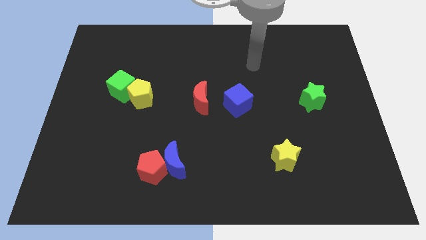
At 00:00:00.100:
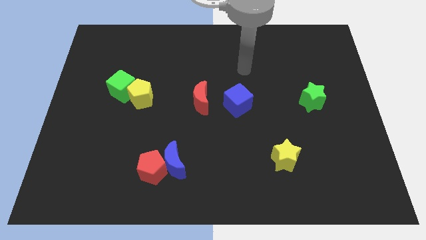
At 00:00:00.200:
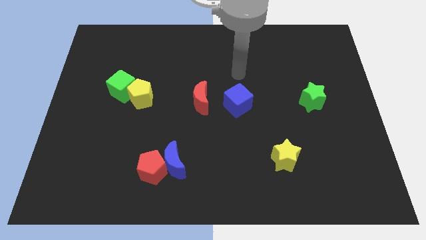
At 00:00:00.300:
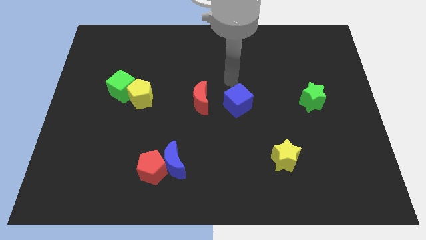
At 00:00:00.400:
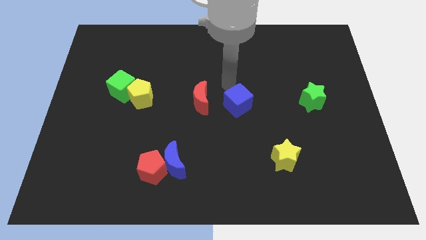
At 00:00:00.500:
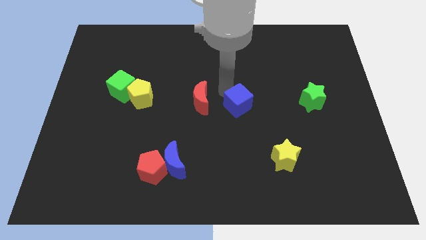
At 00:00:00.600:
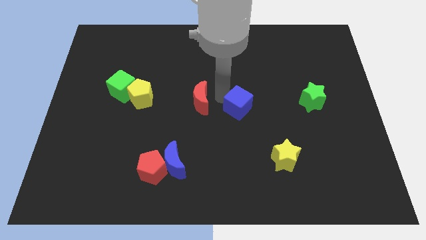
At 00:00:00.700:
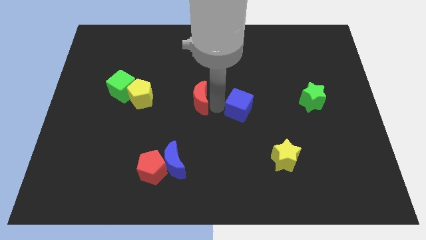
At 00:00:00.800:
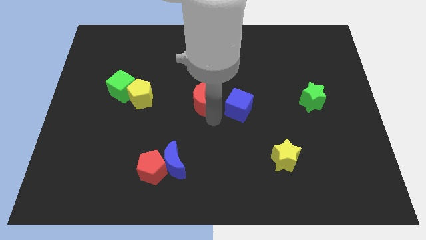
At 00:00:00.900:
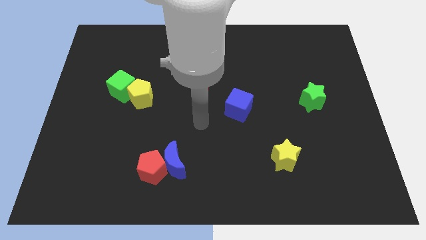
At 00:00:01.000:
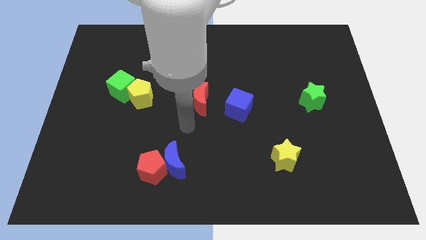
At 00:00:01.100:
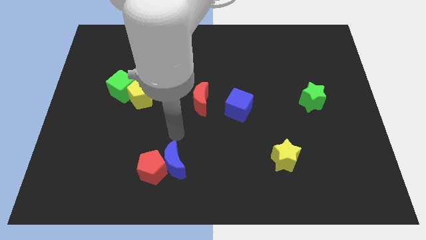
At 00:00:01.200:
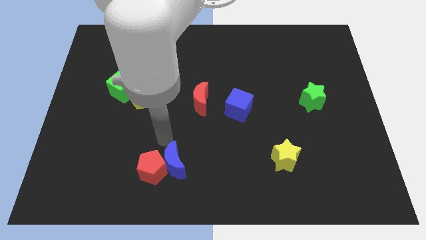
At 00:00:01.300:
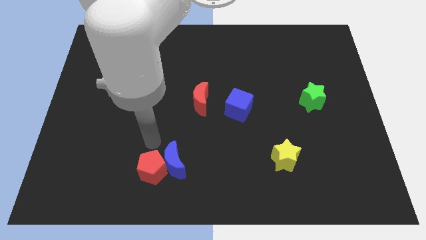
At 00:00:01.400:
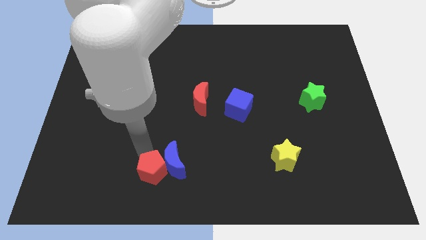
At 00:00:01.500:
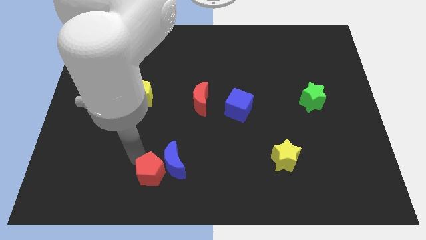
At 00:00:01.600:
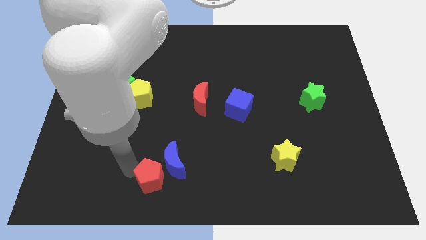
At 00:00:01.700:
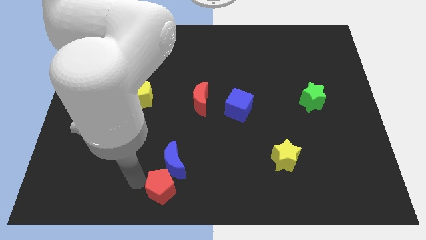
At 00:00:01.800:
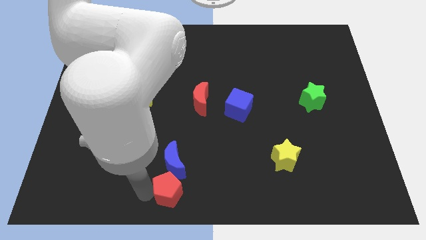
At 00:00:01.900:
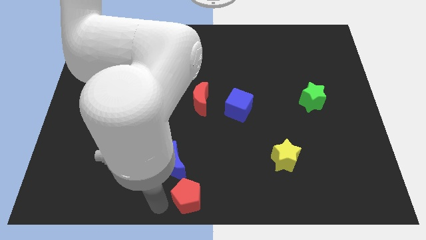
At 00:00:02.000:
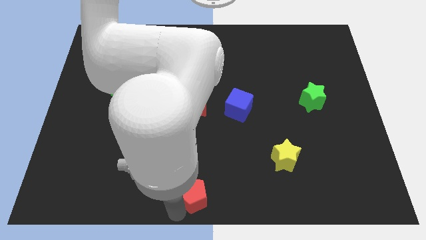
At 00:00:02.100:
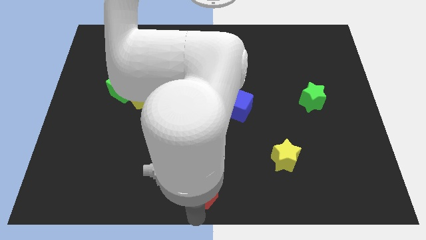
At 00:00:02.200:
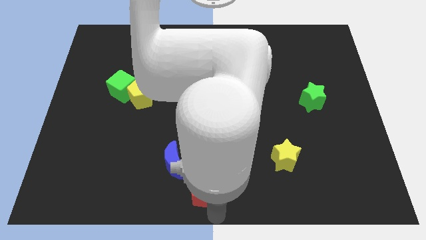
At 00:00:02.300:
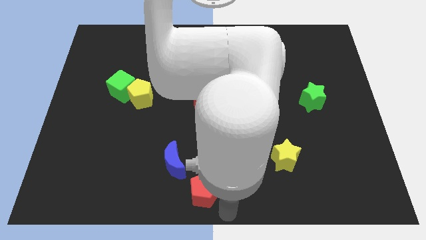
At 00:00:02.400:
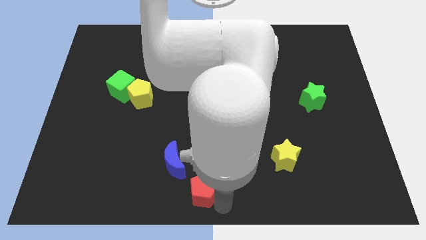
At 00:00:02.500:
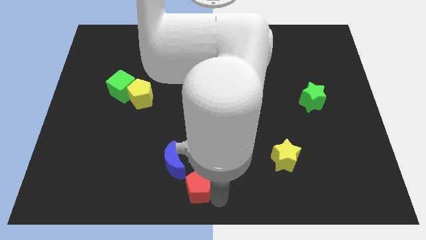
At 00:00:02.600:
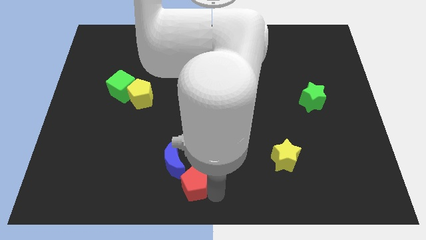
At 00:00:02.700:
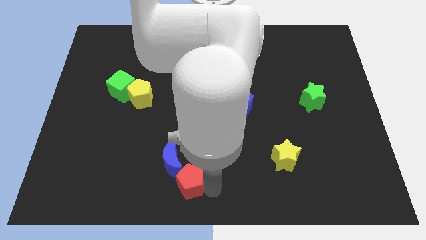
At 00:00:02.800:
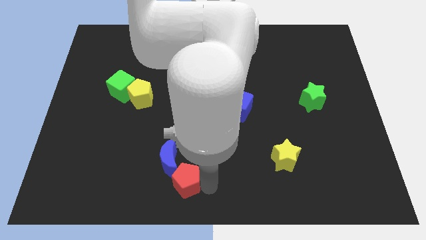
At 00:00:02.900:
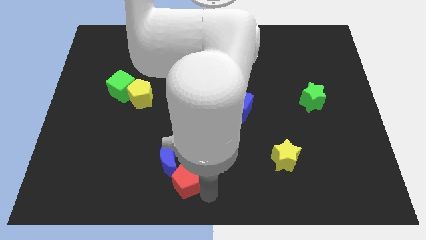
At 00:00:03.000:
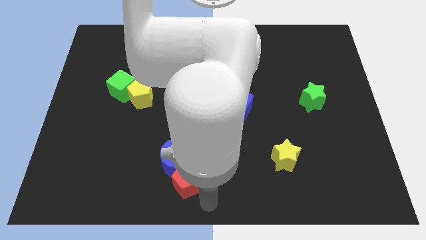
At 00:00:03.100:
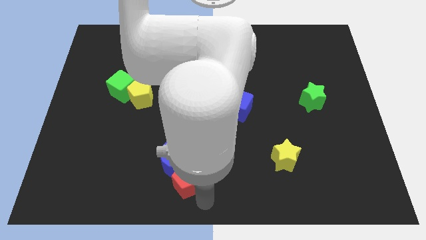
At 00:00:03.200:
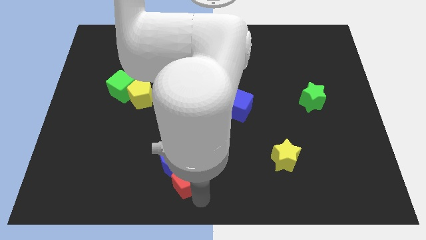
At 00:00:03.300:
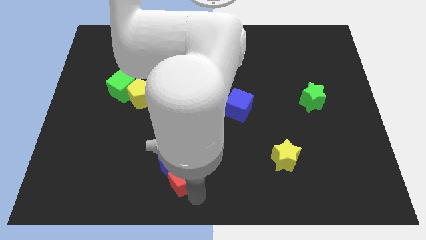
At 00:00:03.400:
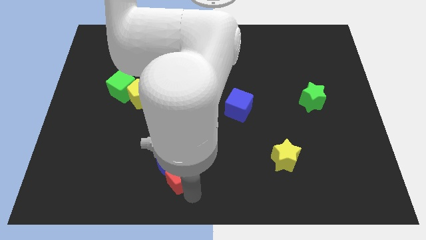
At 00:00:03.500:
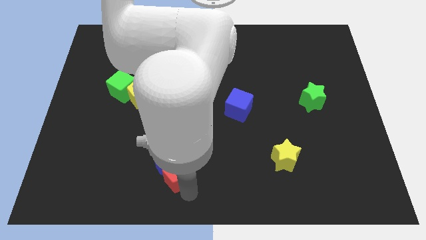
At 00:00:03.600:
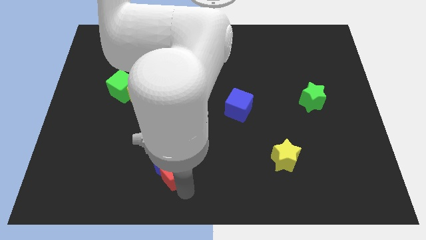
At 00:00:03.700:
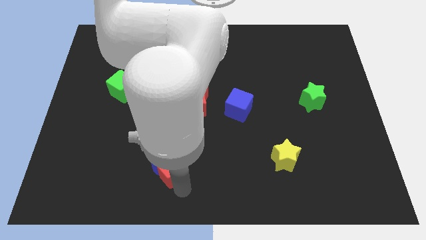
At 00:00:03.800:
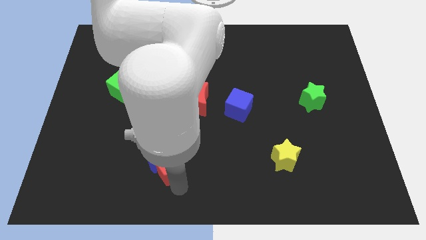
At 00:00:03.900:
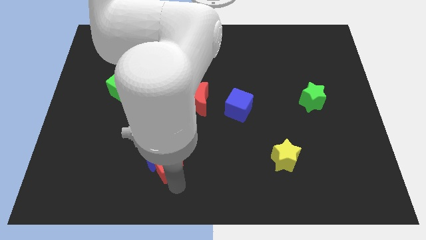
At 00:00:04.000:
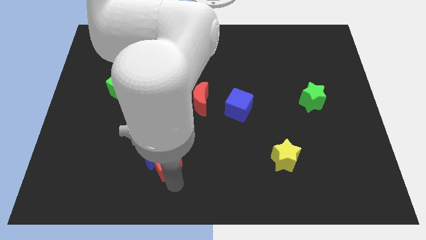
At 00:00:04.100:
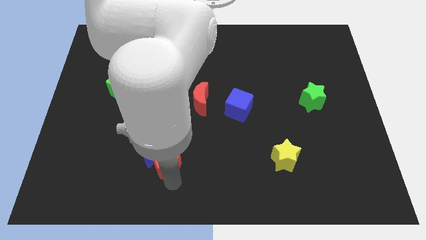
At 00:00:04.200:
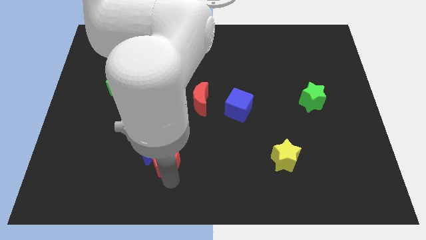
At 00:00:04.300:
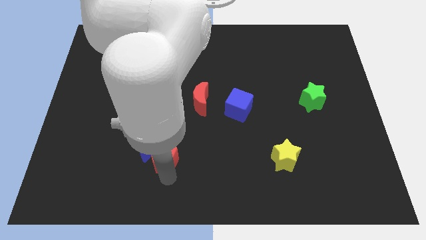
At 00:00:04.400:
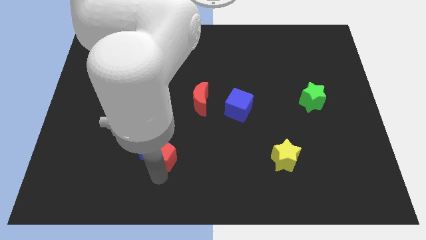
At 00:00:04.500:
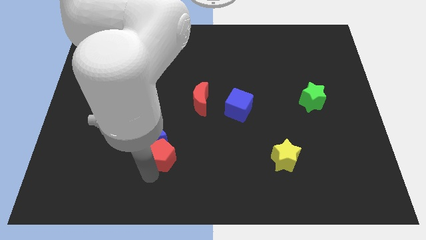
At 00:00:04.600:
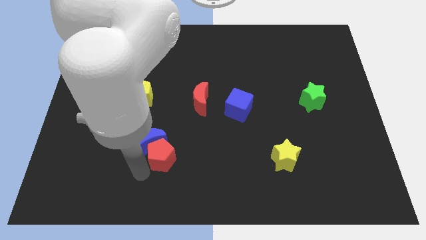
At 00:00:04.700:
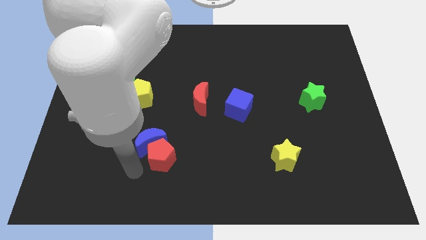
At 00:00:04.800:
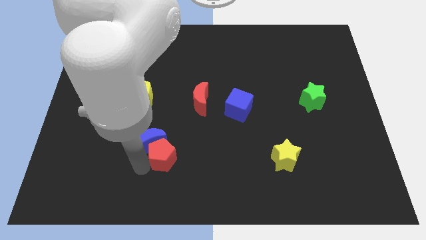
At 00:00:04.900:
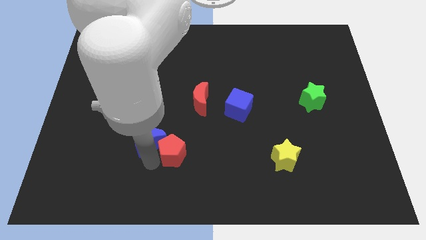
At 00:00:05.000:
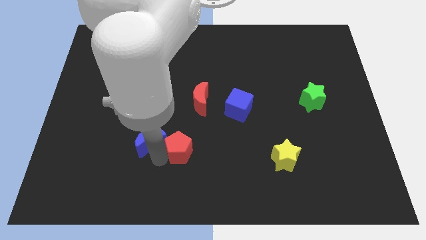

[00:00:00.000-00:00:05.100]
slide the red pentagon to the bottom side of the red moon

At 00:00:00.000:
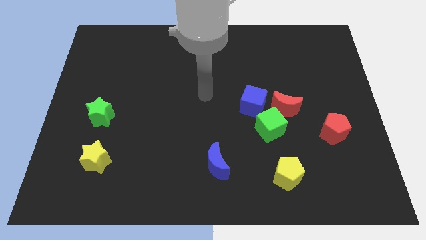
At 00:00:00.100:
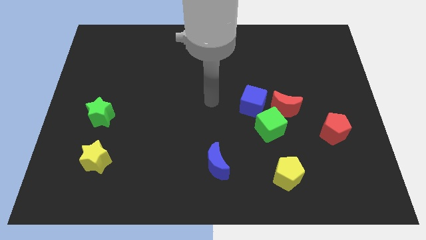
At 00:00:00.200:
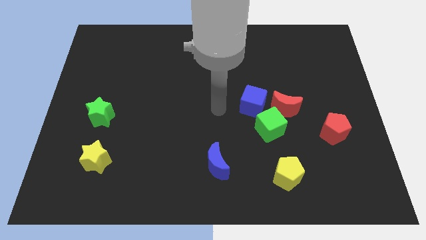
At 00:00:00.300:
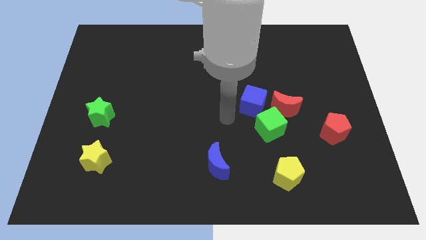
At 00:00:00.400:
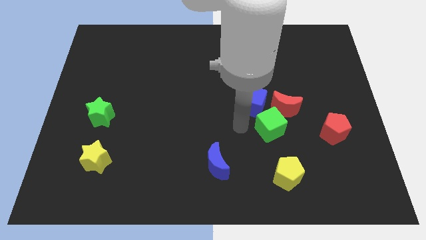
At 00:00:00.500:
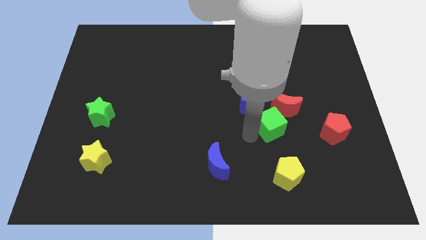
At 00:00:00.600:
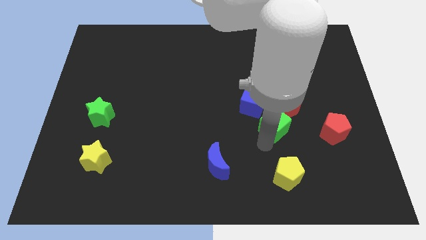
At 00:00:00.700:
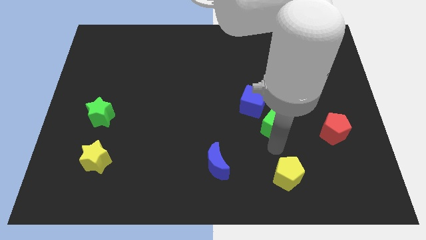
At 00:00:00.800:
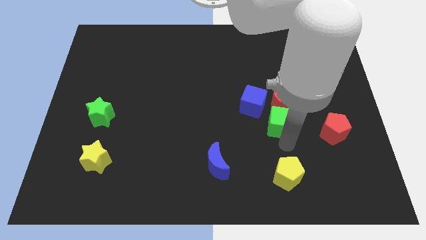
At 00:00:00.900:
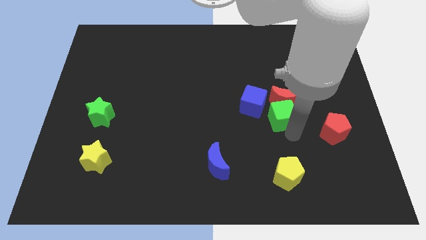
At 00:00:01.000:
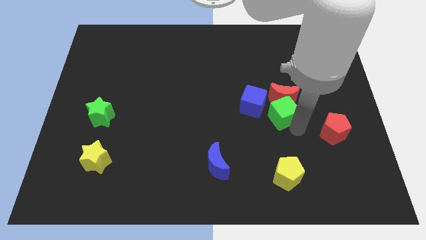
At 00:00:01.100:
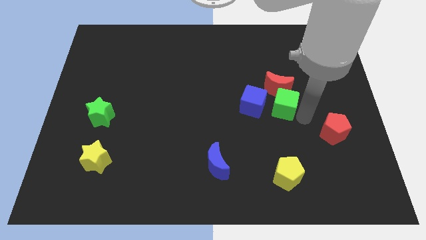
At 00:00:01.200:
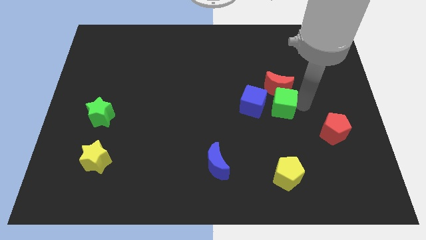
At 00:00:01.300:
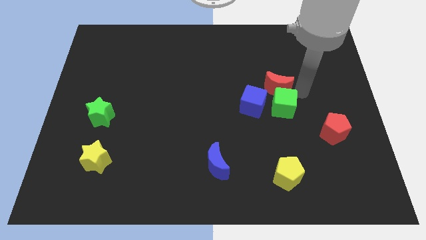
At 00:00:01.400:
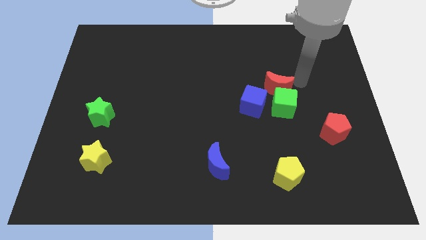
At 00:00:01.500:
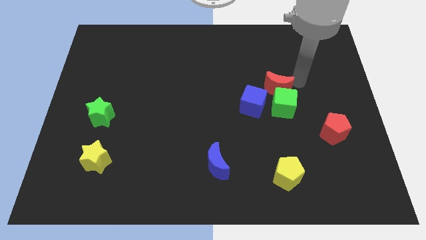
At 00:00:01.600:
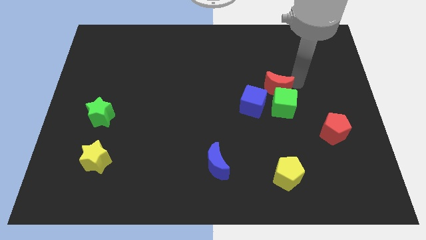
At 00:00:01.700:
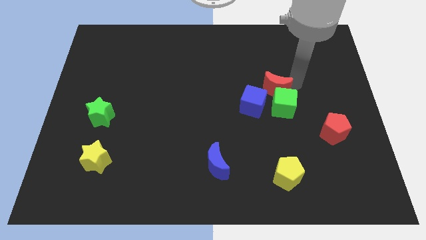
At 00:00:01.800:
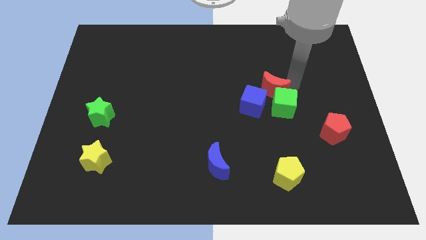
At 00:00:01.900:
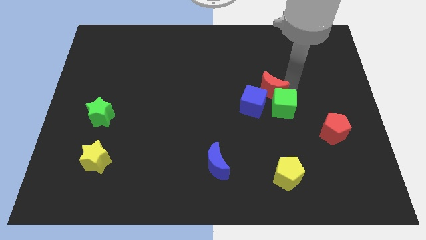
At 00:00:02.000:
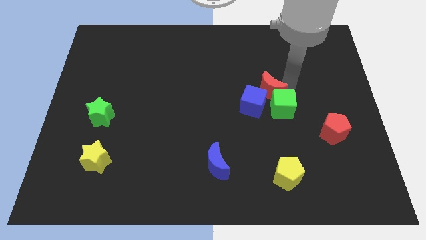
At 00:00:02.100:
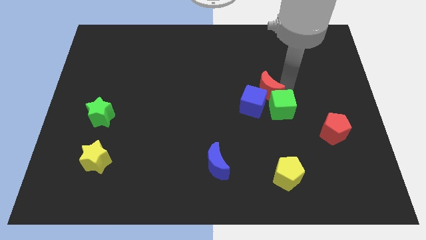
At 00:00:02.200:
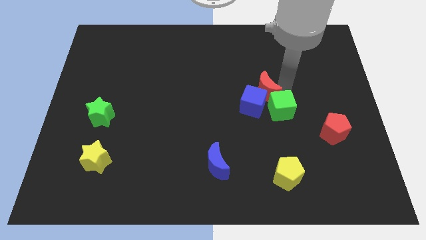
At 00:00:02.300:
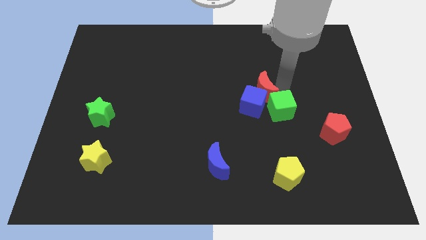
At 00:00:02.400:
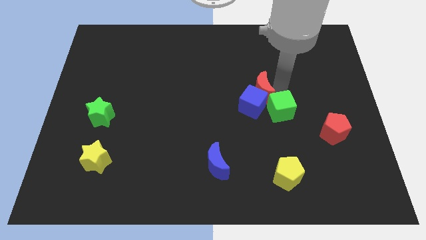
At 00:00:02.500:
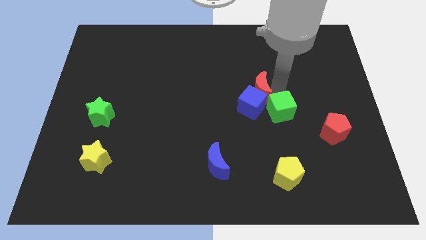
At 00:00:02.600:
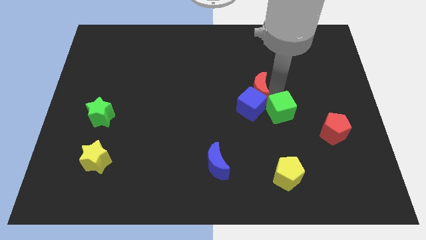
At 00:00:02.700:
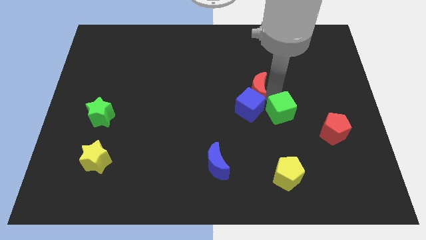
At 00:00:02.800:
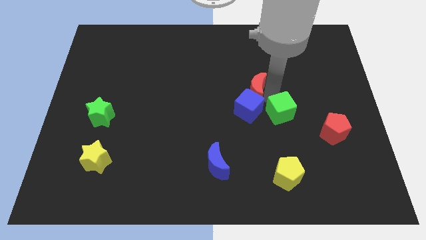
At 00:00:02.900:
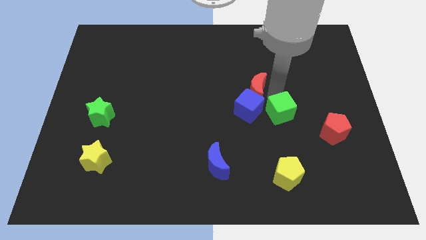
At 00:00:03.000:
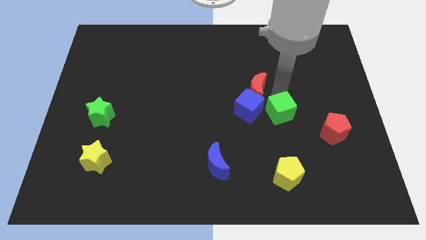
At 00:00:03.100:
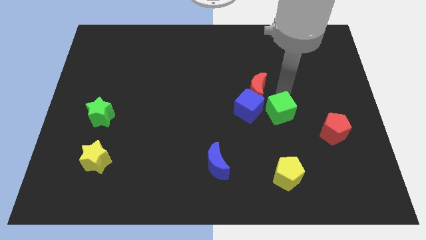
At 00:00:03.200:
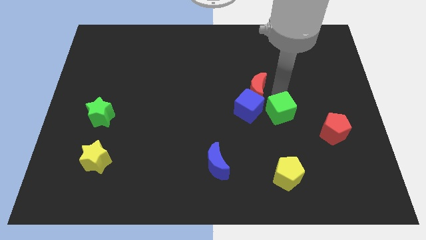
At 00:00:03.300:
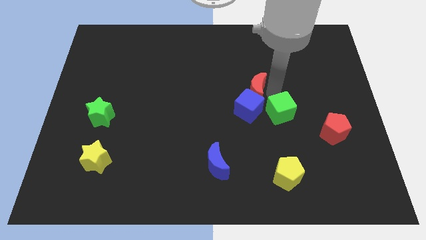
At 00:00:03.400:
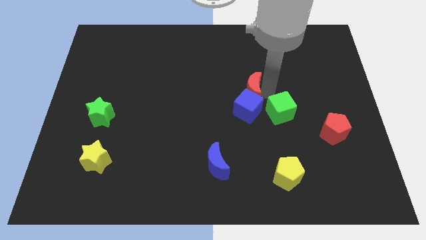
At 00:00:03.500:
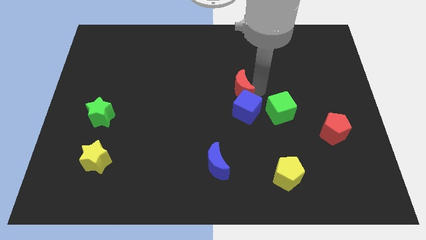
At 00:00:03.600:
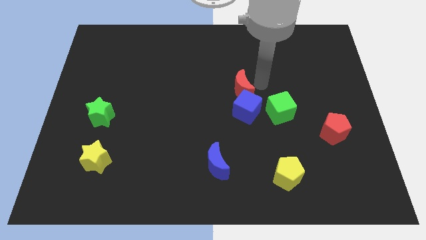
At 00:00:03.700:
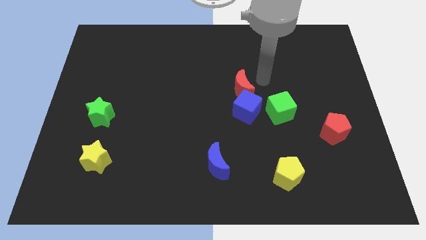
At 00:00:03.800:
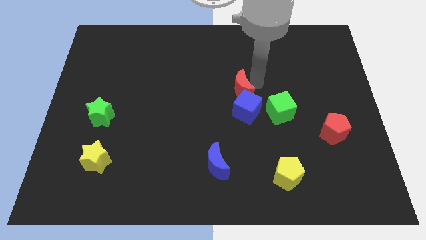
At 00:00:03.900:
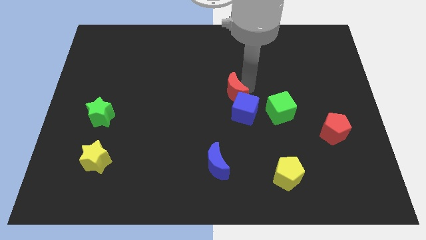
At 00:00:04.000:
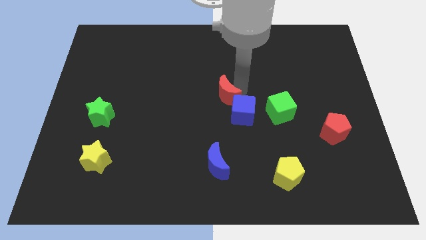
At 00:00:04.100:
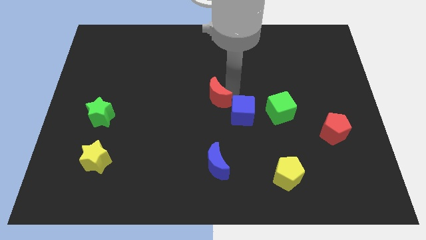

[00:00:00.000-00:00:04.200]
slide the red moon to the left side of the blue cube
